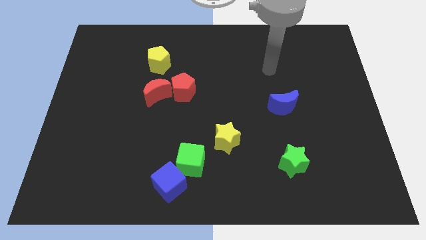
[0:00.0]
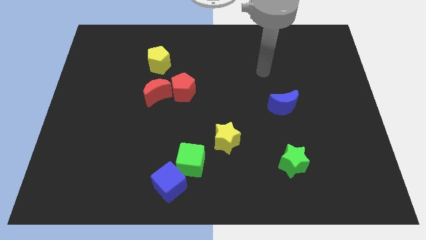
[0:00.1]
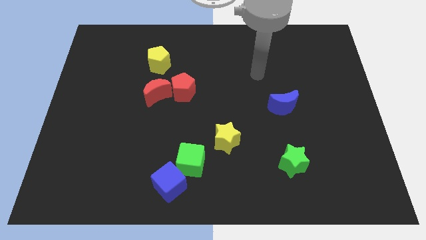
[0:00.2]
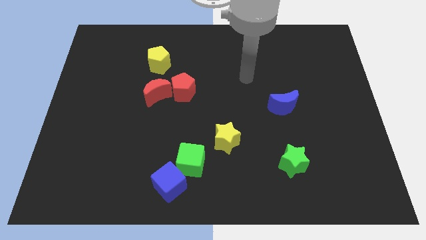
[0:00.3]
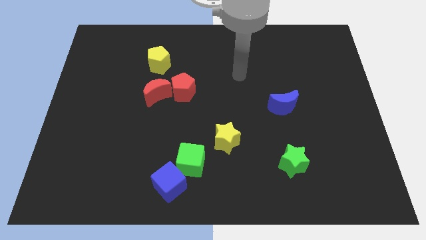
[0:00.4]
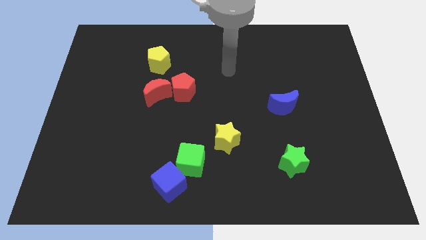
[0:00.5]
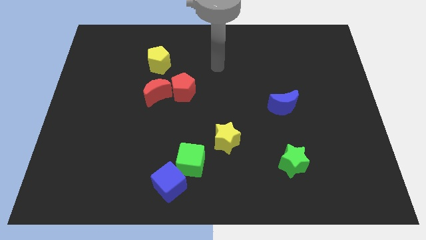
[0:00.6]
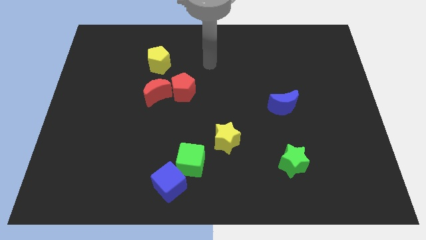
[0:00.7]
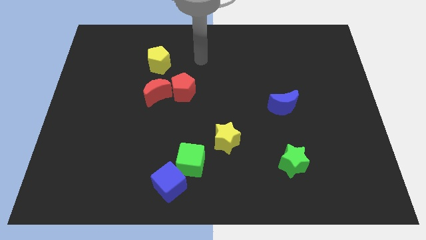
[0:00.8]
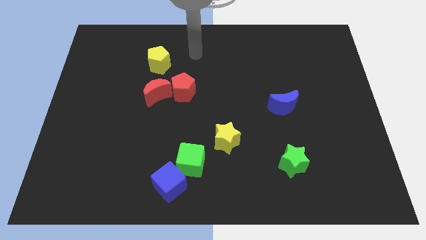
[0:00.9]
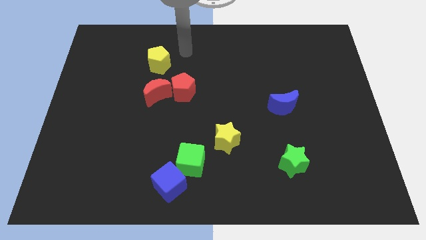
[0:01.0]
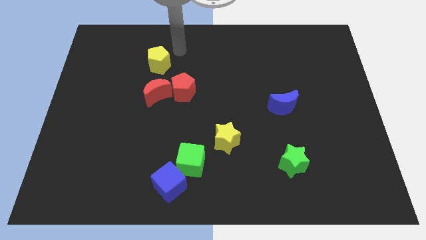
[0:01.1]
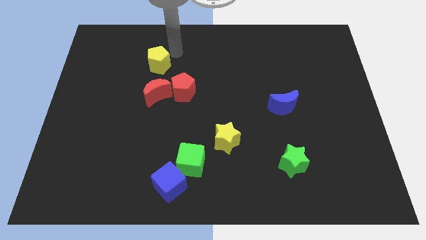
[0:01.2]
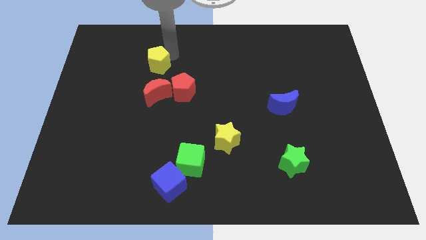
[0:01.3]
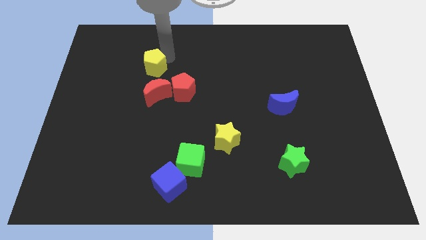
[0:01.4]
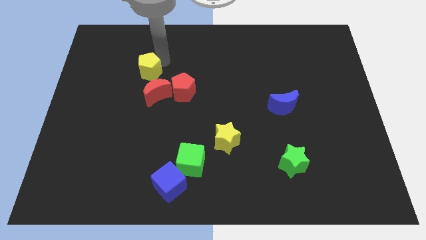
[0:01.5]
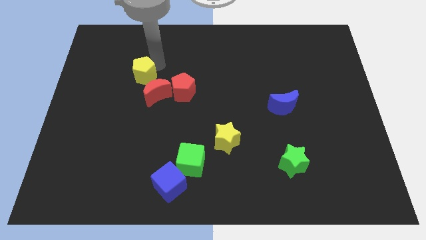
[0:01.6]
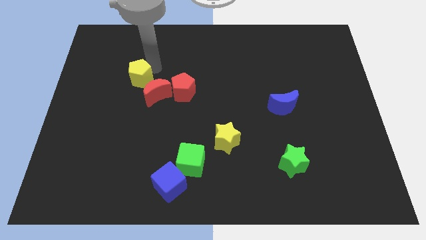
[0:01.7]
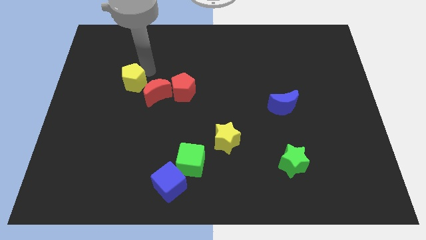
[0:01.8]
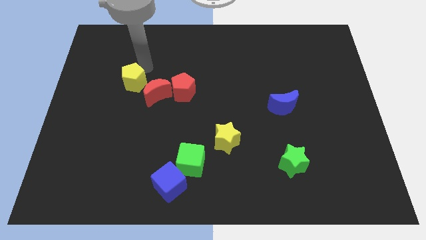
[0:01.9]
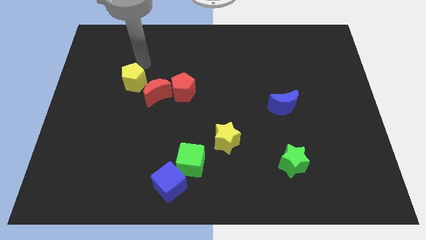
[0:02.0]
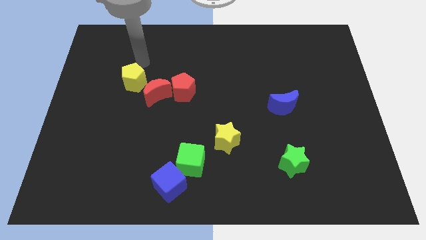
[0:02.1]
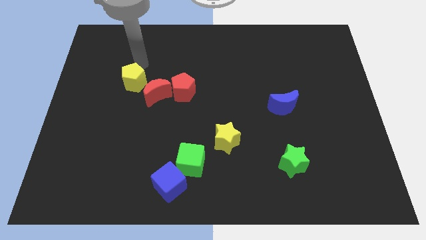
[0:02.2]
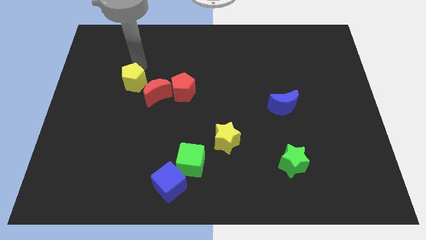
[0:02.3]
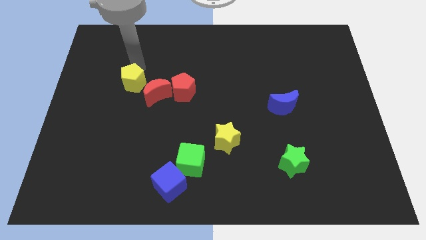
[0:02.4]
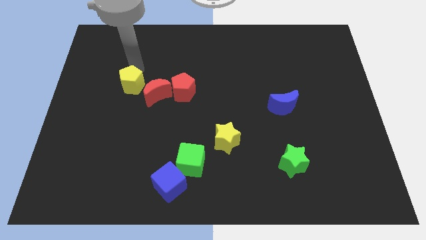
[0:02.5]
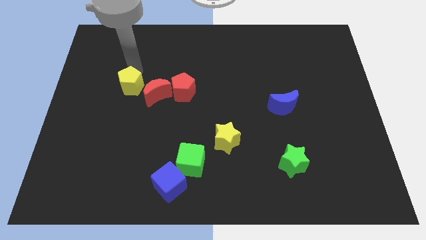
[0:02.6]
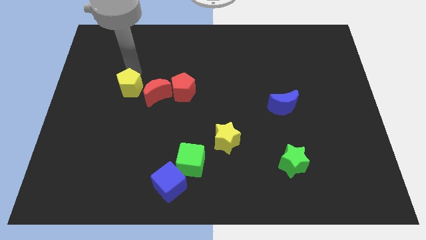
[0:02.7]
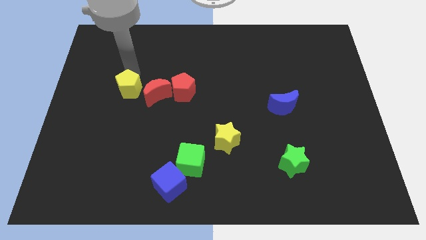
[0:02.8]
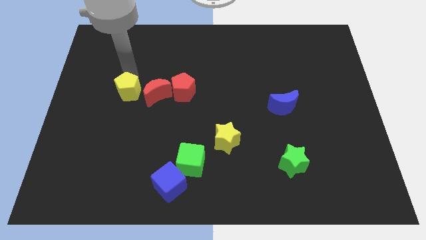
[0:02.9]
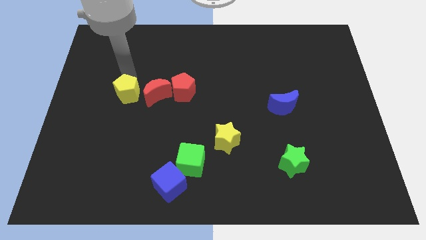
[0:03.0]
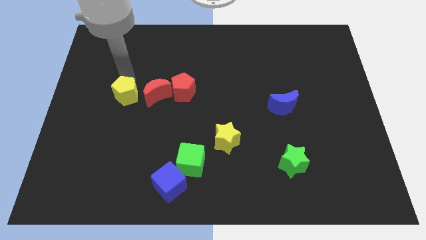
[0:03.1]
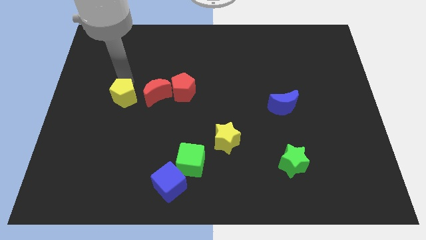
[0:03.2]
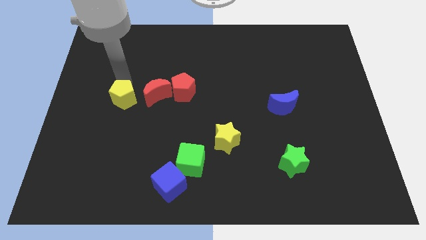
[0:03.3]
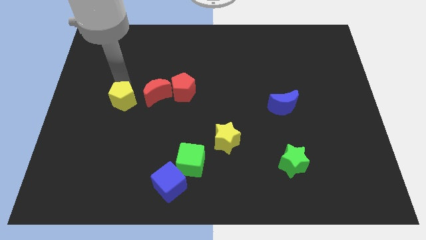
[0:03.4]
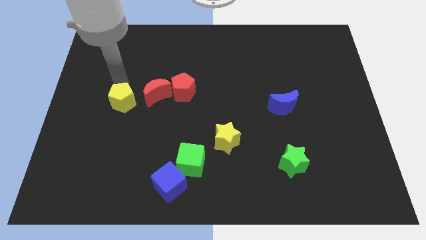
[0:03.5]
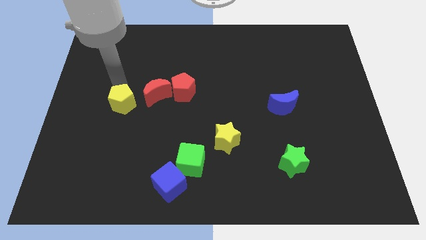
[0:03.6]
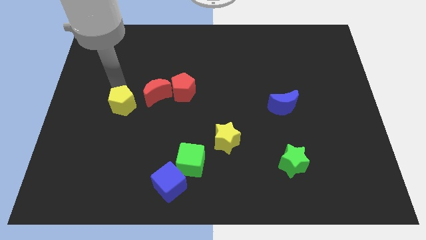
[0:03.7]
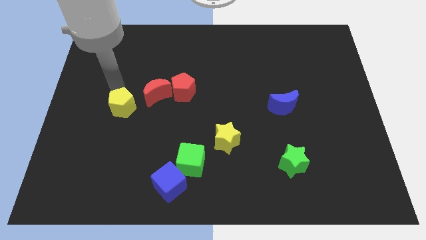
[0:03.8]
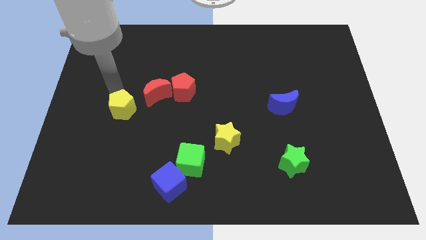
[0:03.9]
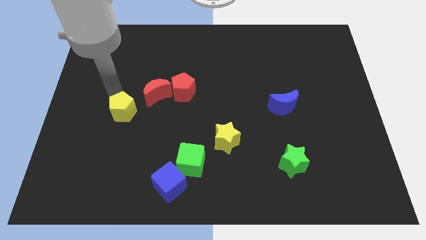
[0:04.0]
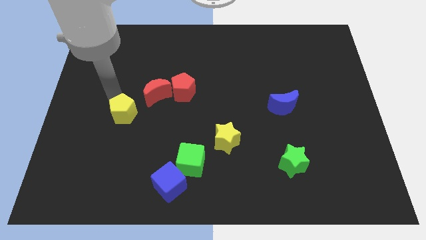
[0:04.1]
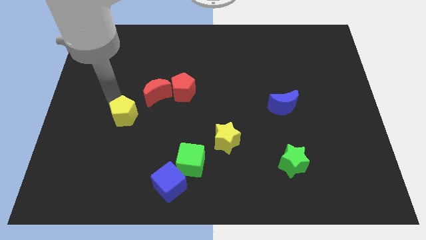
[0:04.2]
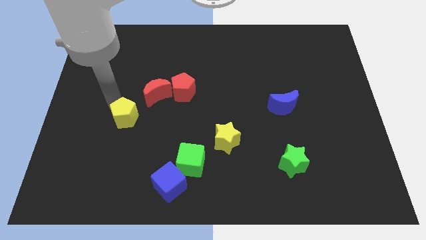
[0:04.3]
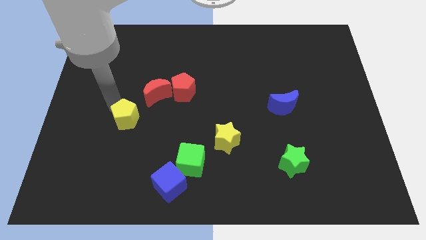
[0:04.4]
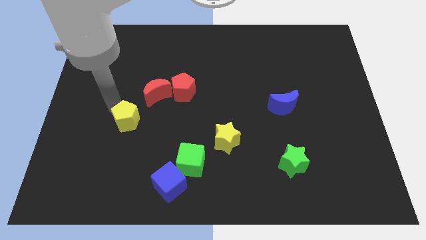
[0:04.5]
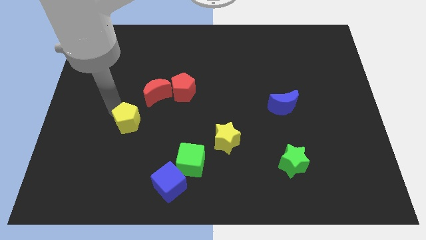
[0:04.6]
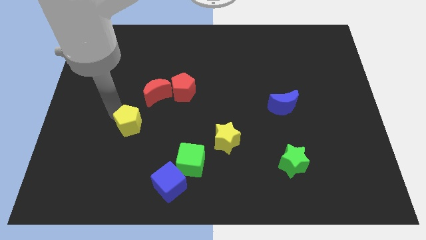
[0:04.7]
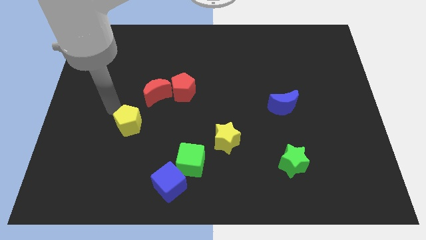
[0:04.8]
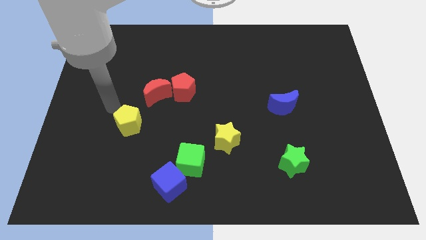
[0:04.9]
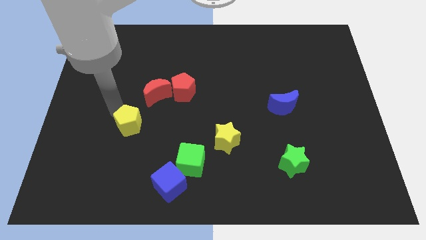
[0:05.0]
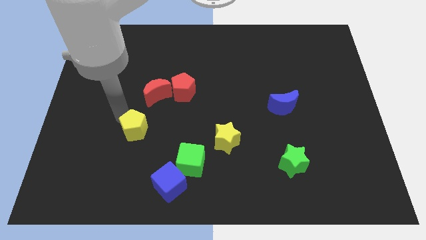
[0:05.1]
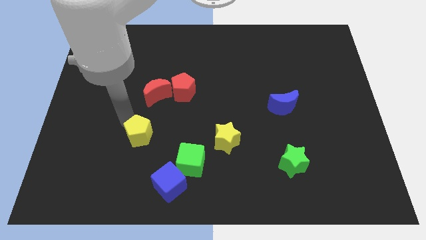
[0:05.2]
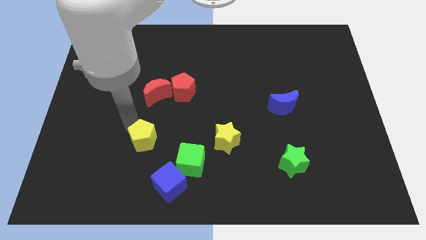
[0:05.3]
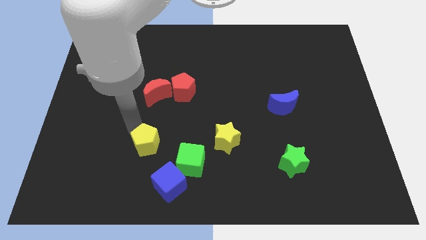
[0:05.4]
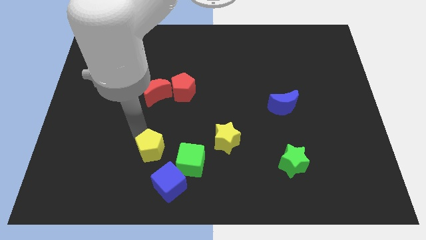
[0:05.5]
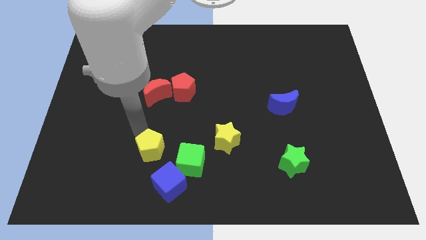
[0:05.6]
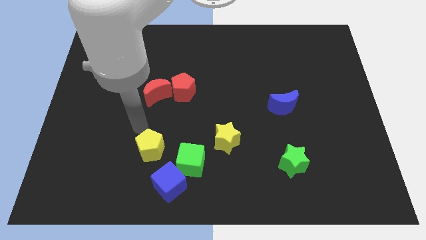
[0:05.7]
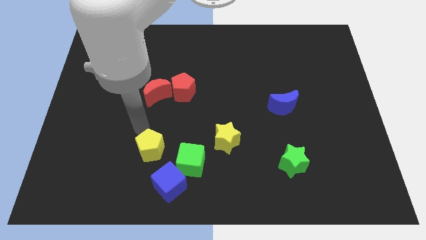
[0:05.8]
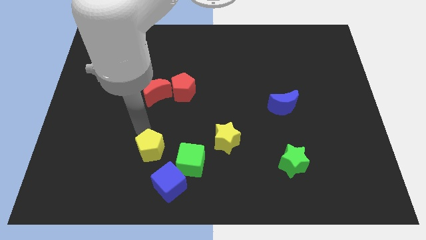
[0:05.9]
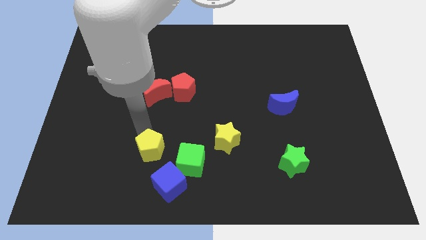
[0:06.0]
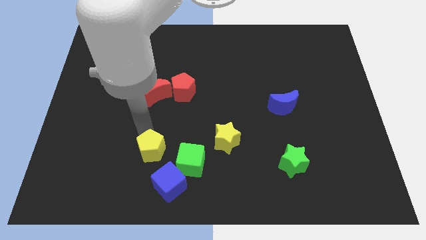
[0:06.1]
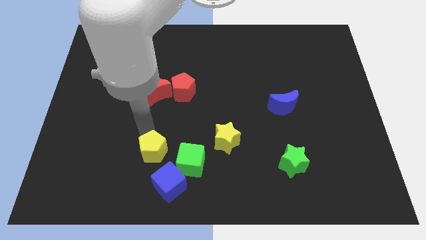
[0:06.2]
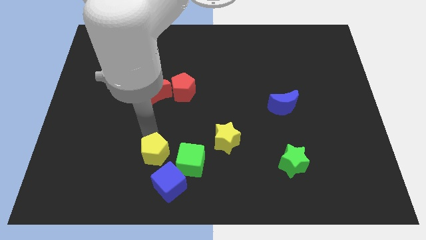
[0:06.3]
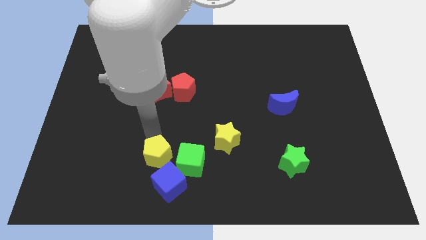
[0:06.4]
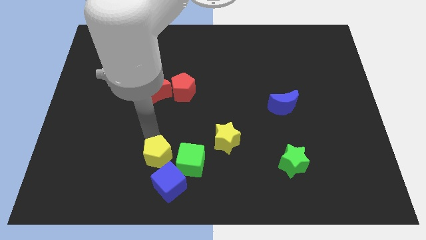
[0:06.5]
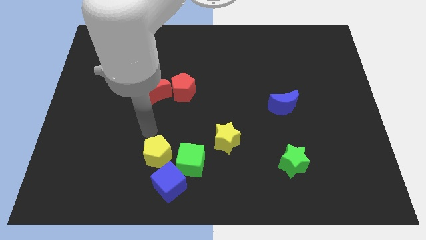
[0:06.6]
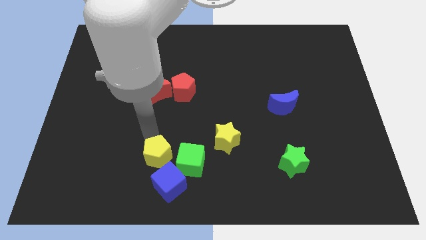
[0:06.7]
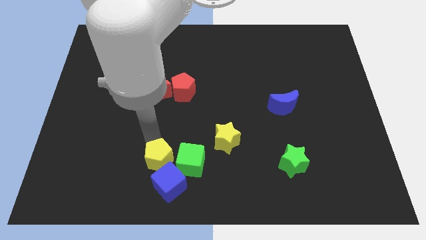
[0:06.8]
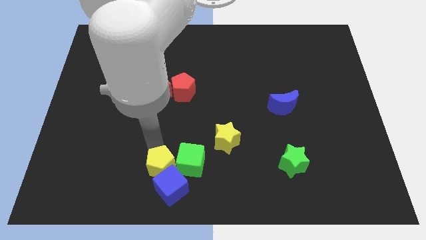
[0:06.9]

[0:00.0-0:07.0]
move the yellow pentagon towards the blue cube
